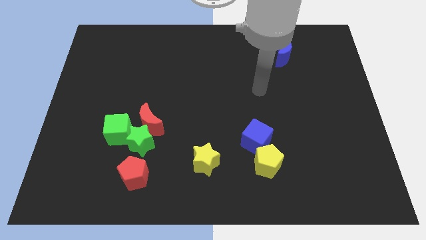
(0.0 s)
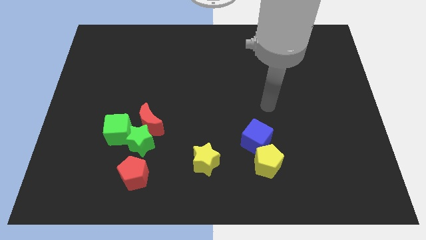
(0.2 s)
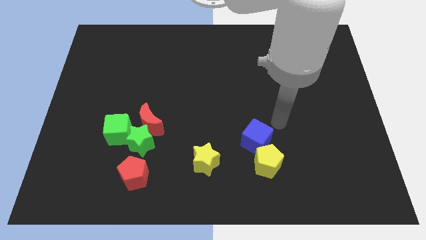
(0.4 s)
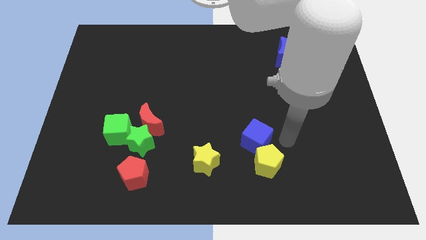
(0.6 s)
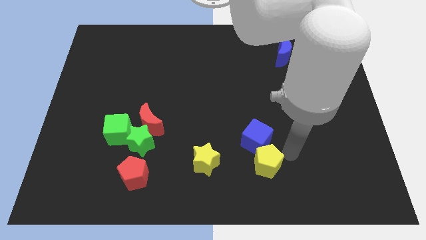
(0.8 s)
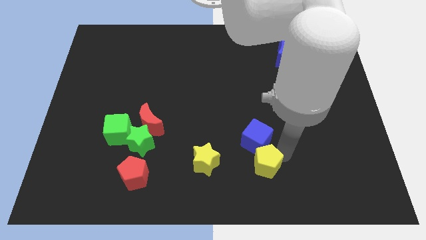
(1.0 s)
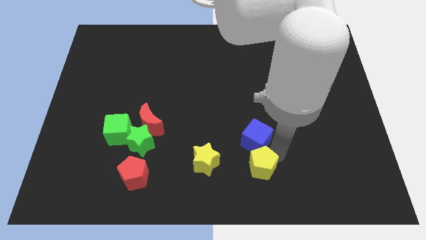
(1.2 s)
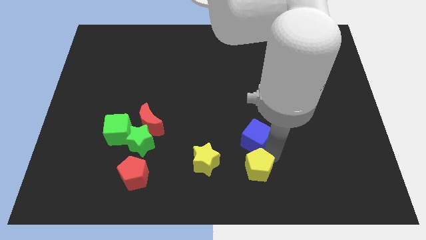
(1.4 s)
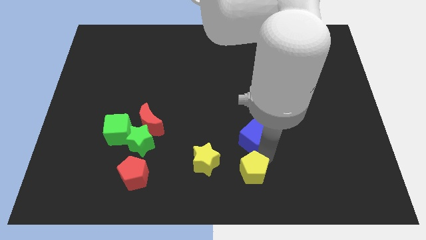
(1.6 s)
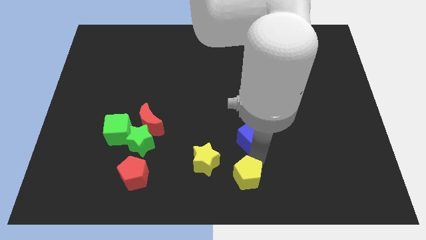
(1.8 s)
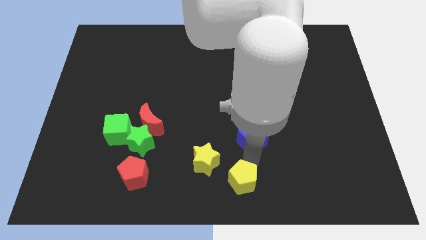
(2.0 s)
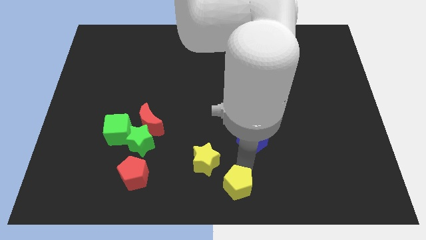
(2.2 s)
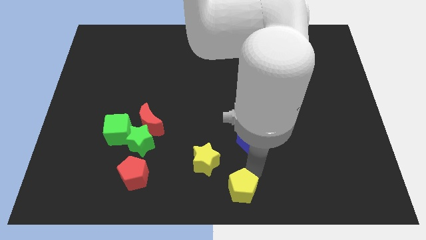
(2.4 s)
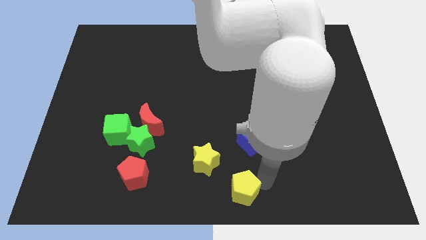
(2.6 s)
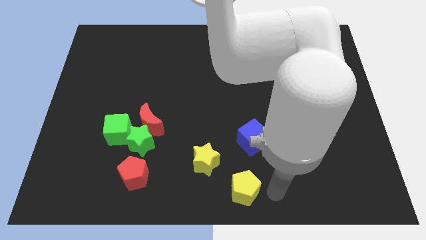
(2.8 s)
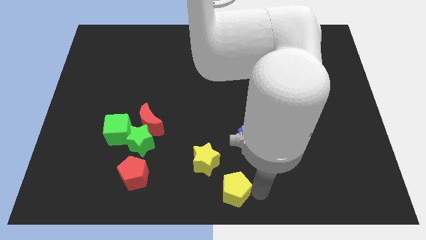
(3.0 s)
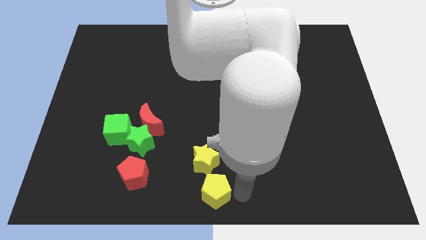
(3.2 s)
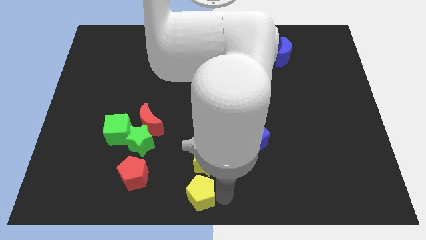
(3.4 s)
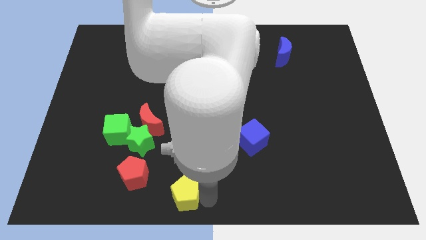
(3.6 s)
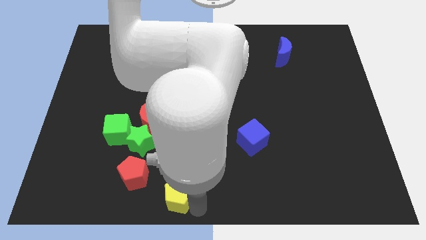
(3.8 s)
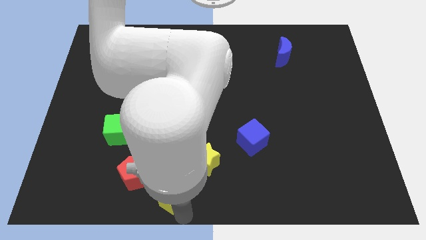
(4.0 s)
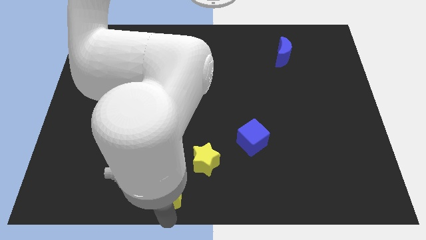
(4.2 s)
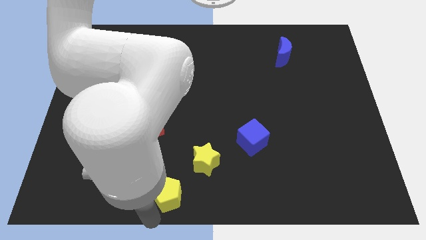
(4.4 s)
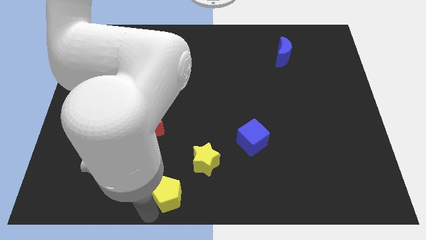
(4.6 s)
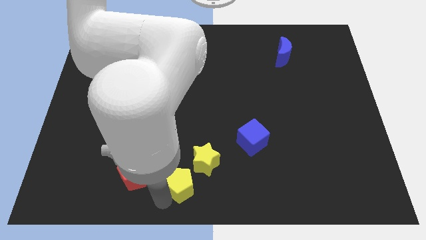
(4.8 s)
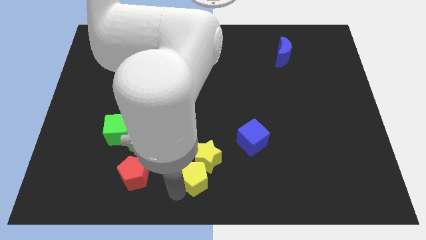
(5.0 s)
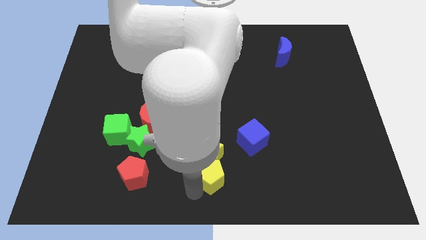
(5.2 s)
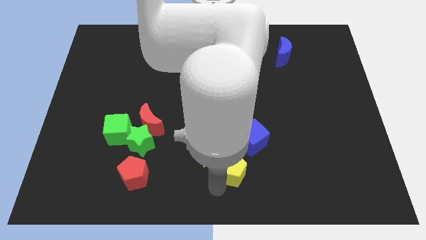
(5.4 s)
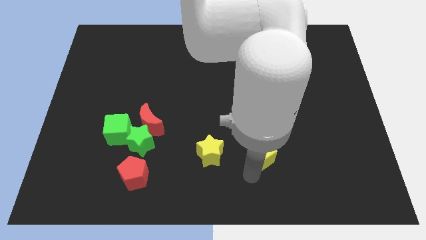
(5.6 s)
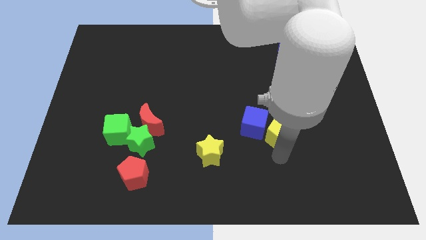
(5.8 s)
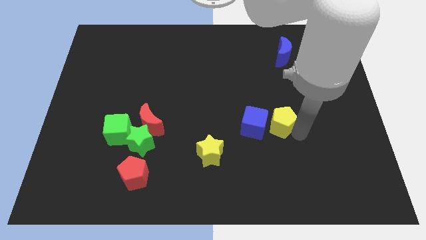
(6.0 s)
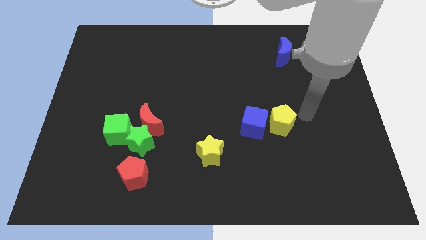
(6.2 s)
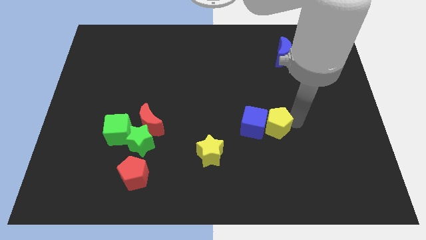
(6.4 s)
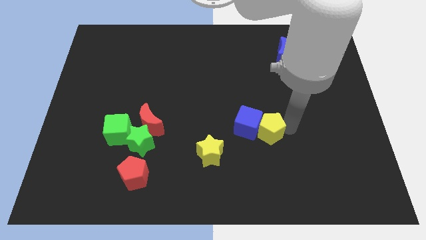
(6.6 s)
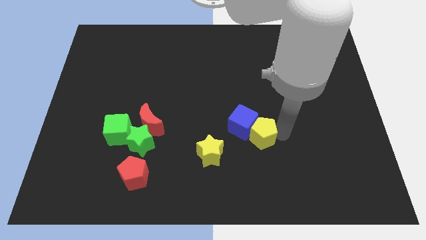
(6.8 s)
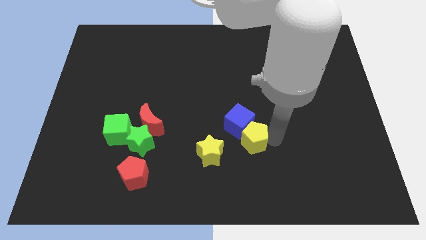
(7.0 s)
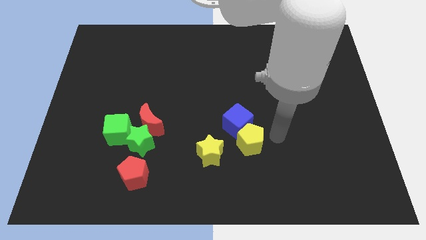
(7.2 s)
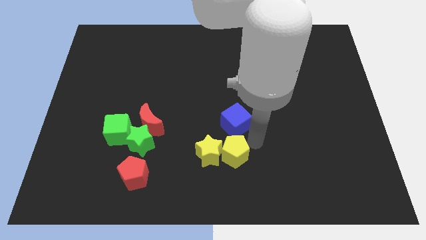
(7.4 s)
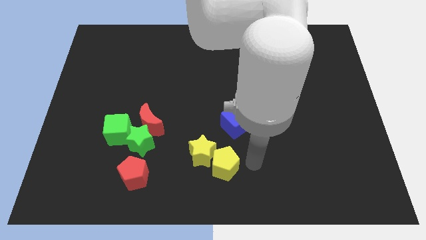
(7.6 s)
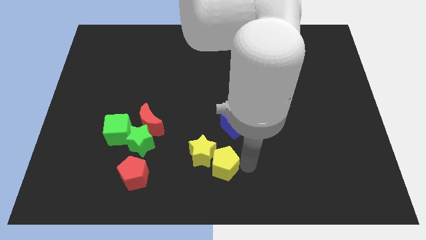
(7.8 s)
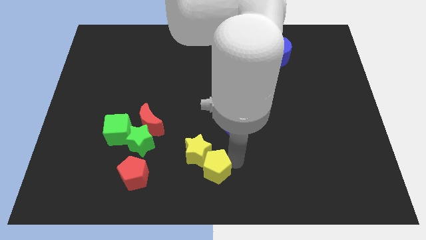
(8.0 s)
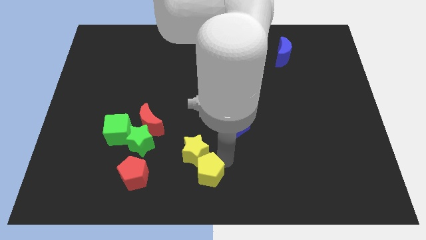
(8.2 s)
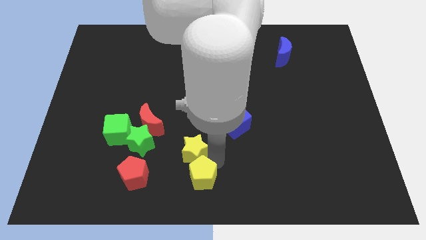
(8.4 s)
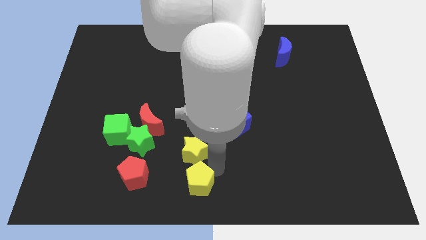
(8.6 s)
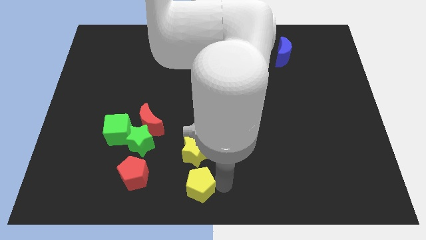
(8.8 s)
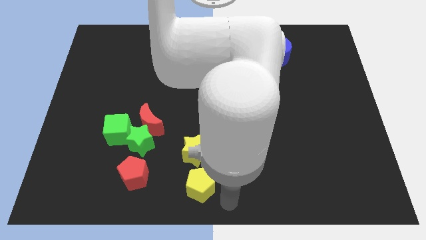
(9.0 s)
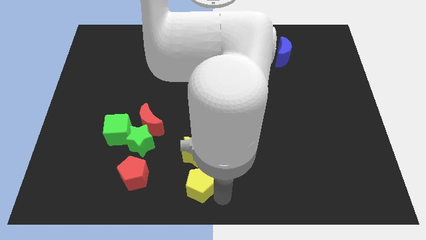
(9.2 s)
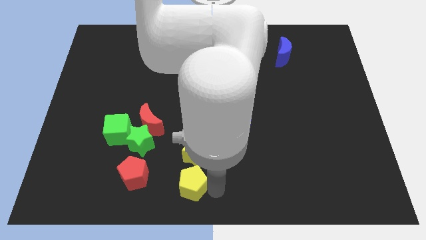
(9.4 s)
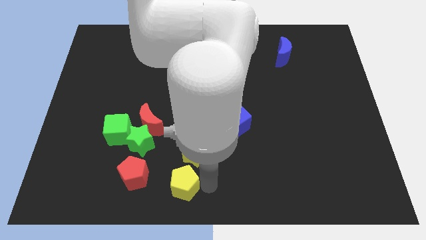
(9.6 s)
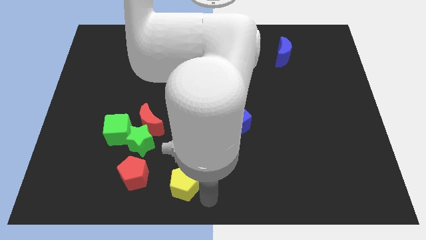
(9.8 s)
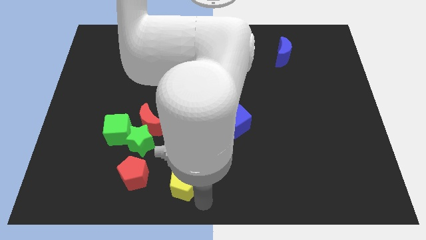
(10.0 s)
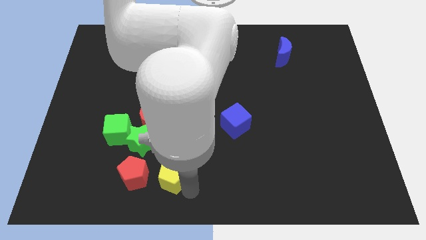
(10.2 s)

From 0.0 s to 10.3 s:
put the yellow pentagon diagonally down and to the right of the green star

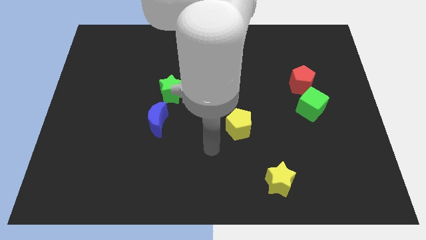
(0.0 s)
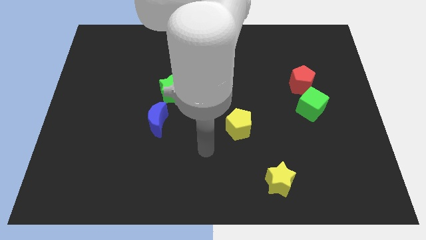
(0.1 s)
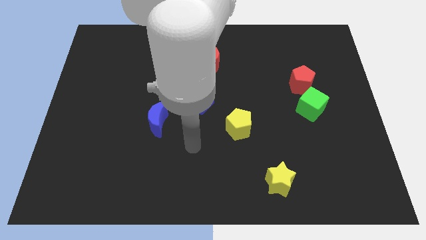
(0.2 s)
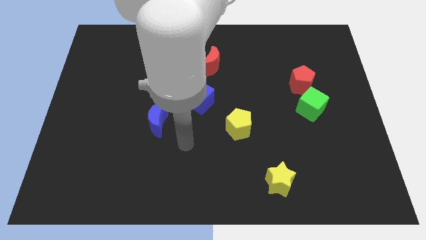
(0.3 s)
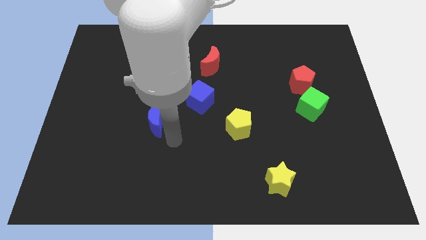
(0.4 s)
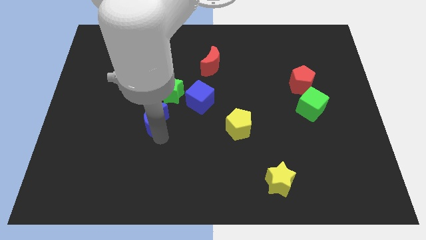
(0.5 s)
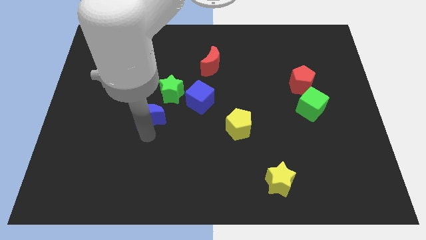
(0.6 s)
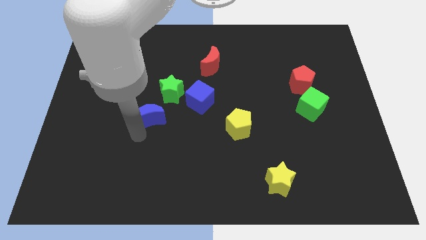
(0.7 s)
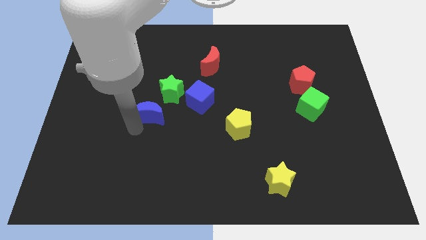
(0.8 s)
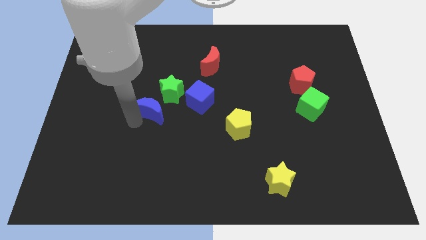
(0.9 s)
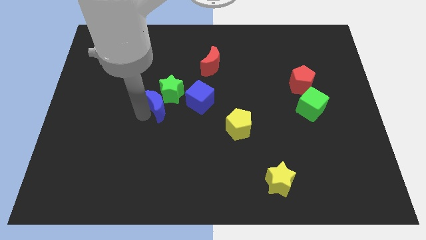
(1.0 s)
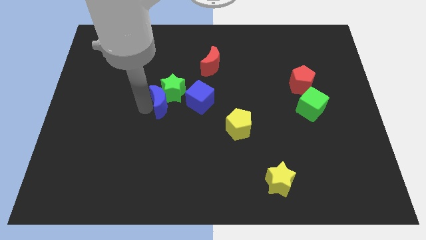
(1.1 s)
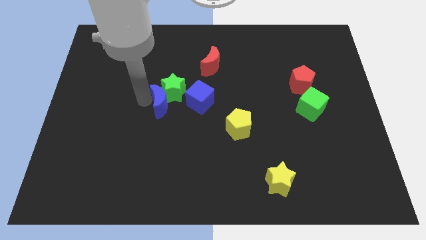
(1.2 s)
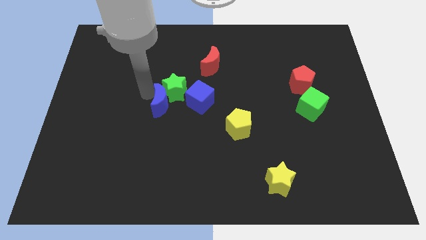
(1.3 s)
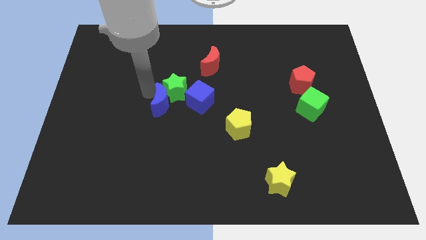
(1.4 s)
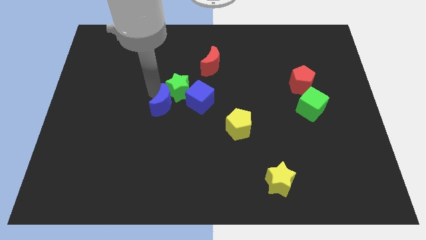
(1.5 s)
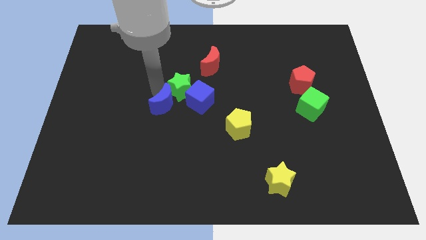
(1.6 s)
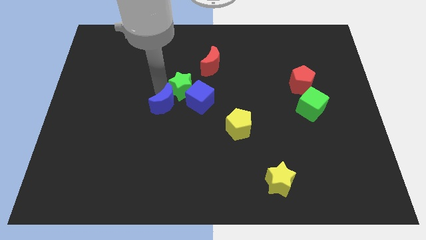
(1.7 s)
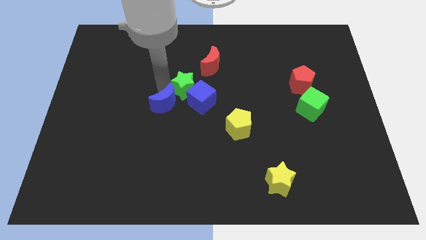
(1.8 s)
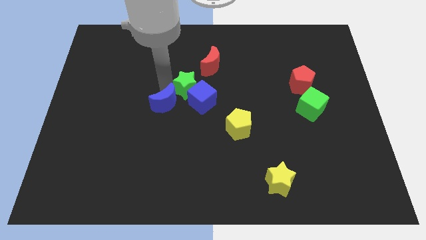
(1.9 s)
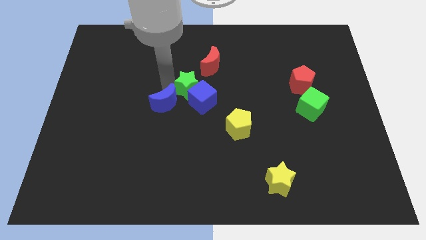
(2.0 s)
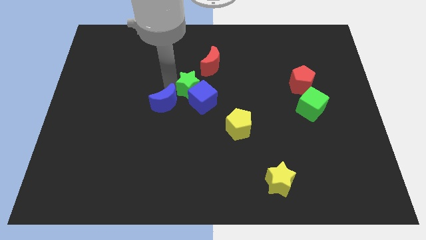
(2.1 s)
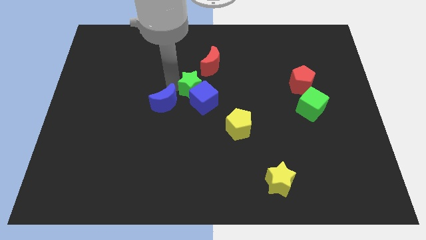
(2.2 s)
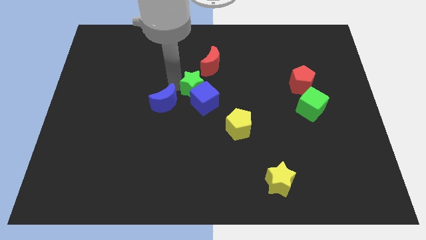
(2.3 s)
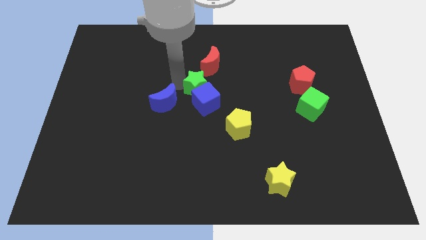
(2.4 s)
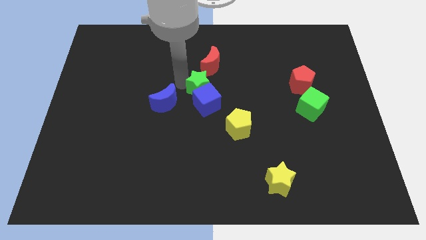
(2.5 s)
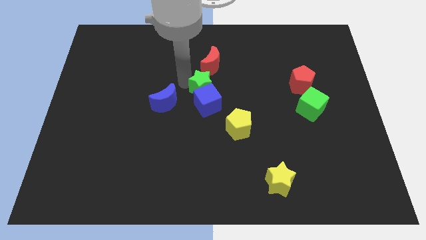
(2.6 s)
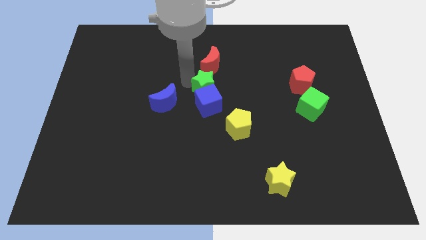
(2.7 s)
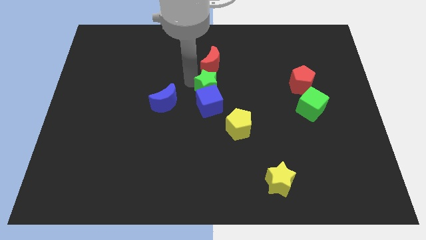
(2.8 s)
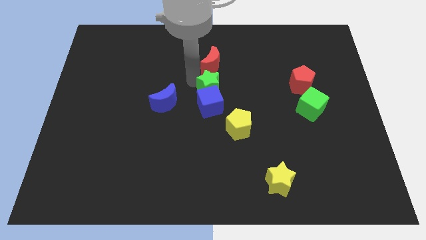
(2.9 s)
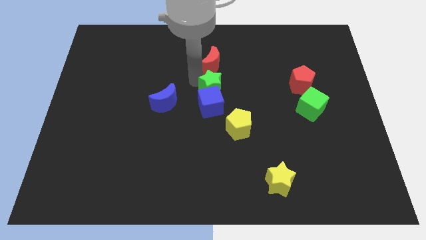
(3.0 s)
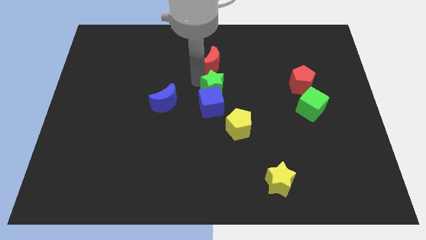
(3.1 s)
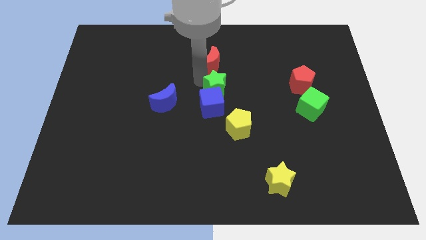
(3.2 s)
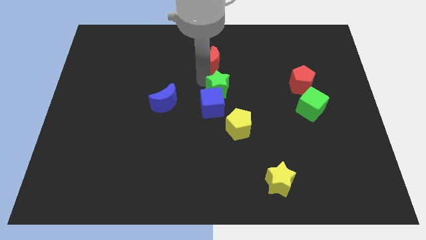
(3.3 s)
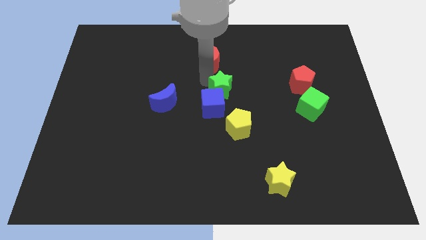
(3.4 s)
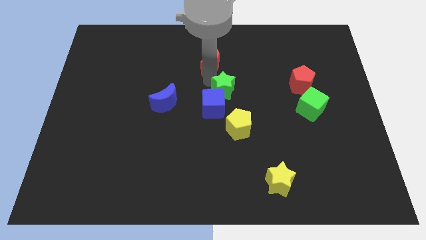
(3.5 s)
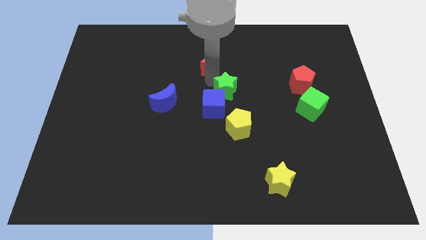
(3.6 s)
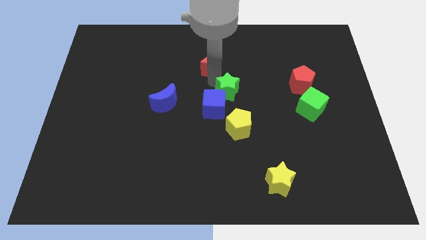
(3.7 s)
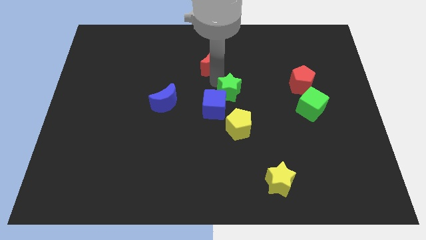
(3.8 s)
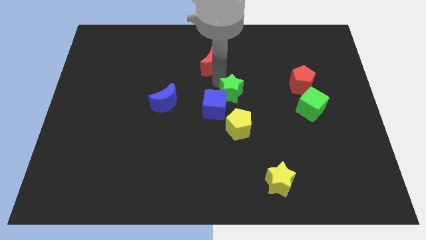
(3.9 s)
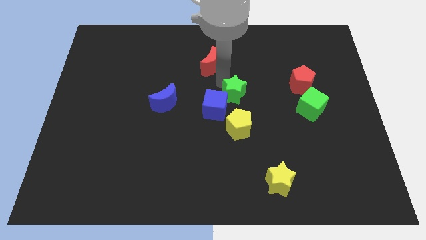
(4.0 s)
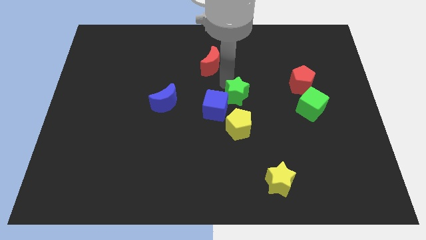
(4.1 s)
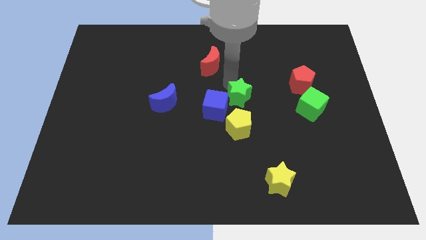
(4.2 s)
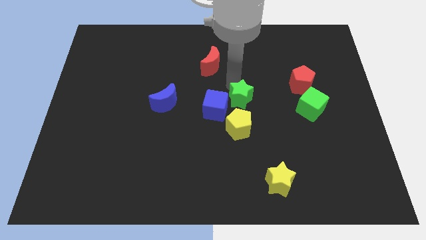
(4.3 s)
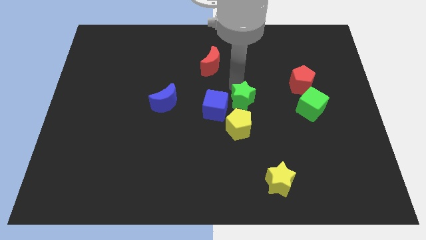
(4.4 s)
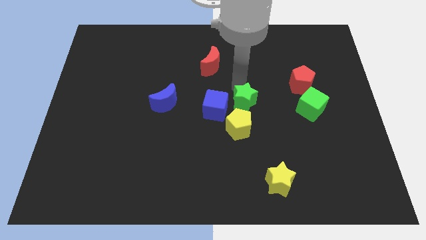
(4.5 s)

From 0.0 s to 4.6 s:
move the green star to the left side of the green cube
